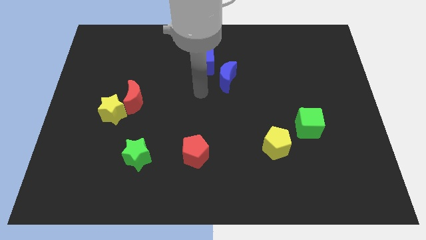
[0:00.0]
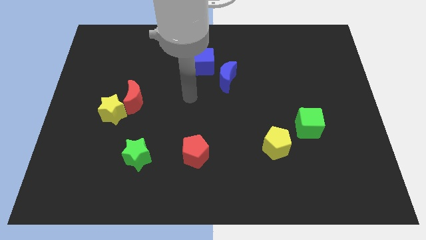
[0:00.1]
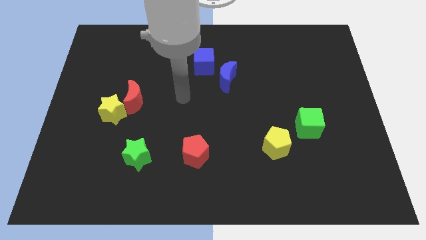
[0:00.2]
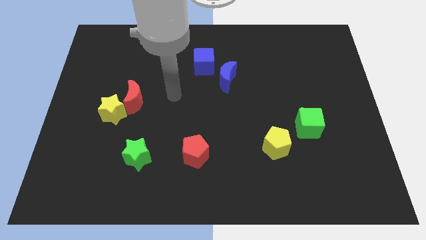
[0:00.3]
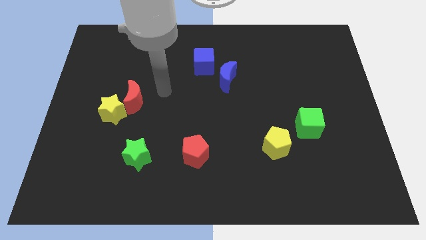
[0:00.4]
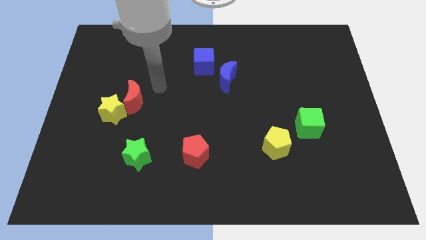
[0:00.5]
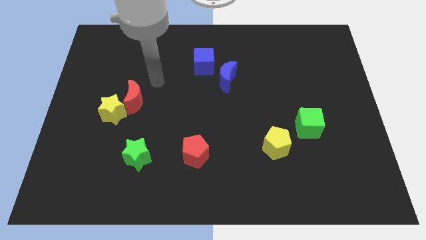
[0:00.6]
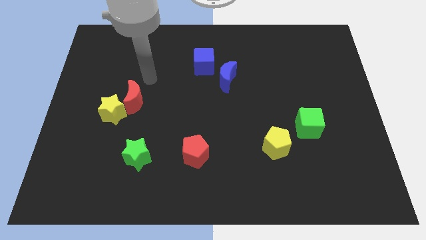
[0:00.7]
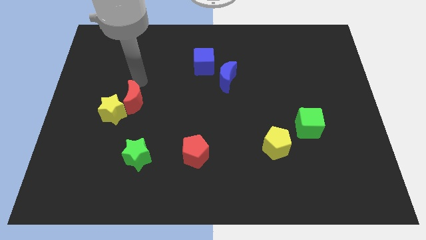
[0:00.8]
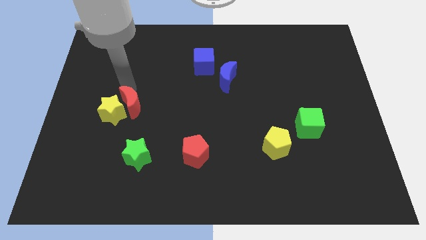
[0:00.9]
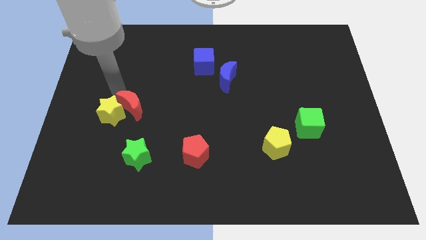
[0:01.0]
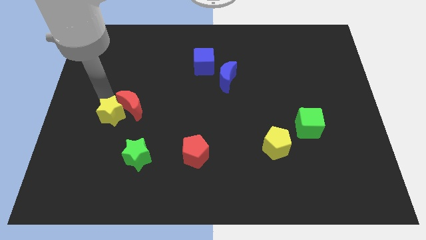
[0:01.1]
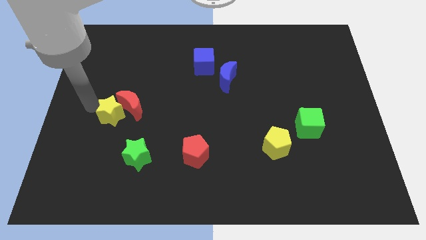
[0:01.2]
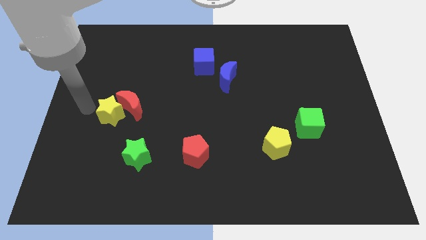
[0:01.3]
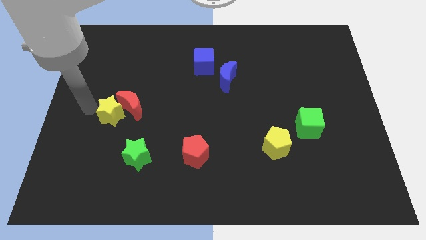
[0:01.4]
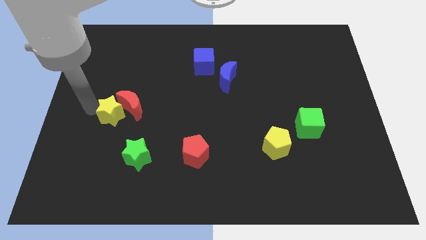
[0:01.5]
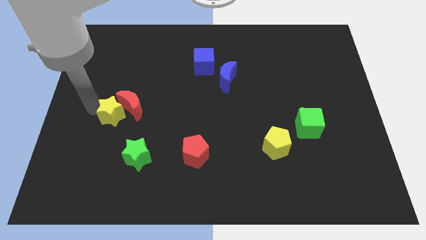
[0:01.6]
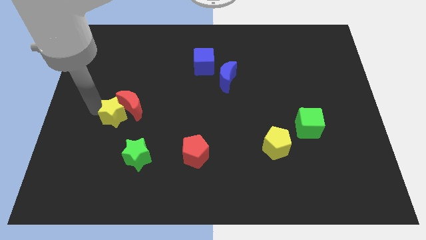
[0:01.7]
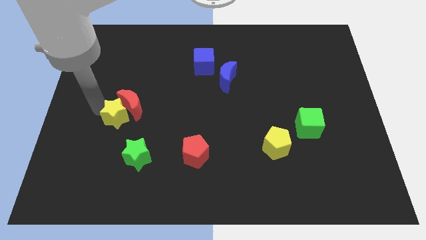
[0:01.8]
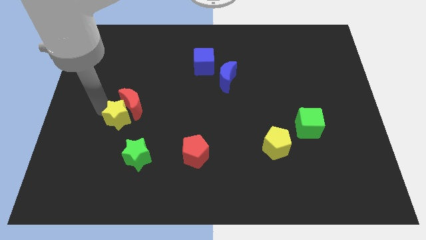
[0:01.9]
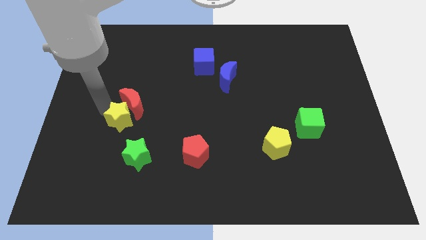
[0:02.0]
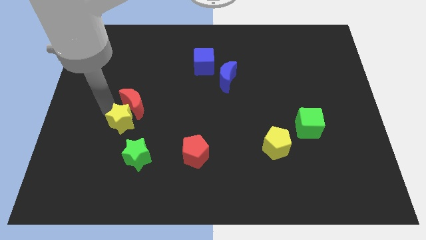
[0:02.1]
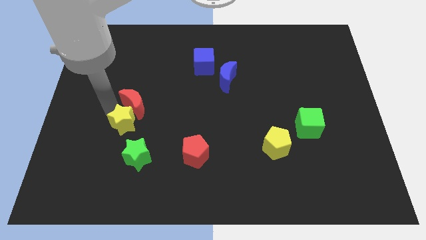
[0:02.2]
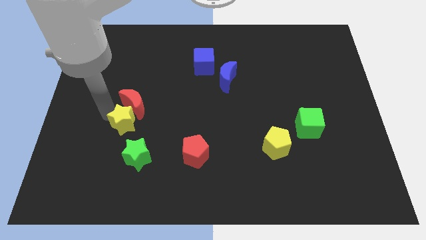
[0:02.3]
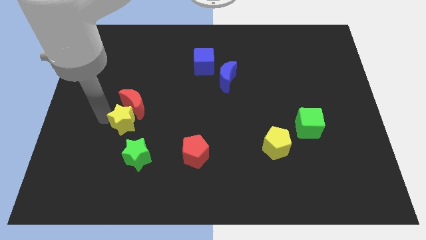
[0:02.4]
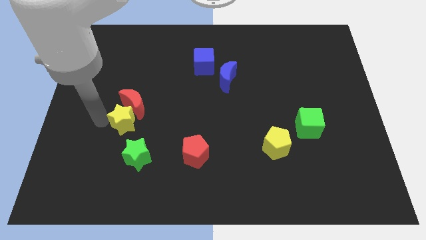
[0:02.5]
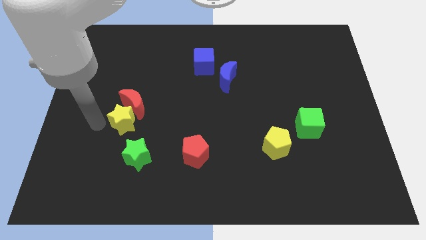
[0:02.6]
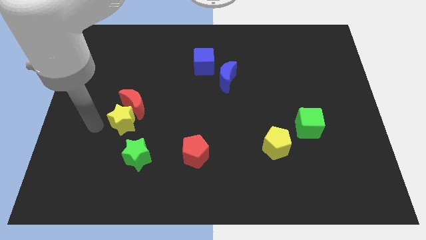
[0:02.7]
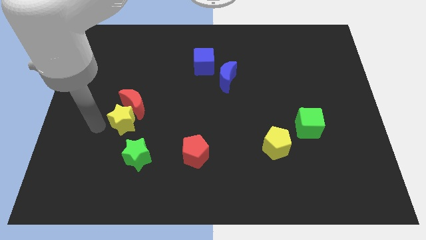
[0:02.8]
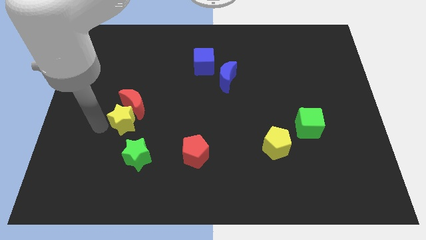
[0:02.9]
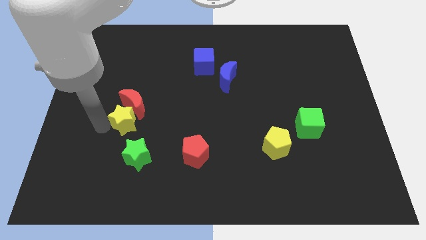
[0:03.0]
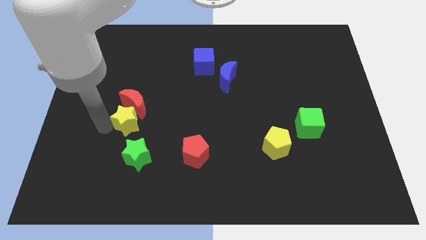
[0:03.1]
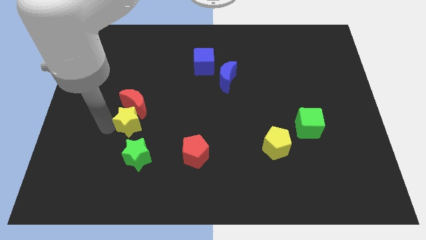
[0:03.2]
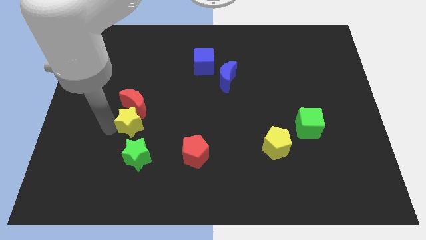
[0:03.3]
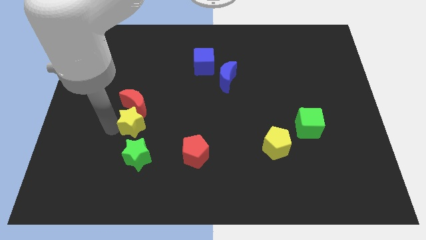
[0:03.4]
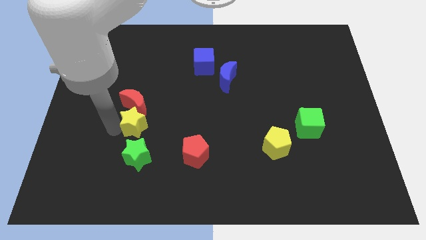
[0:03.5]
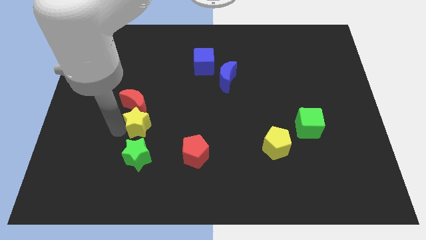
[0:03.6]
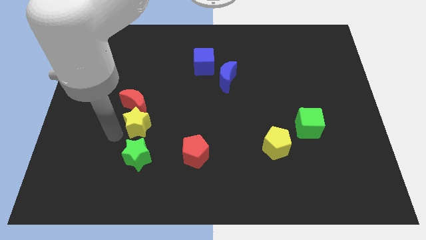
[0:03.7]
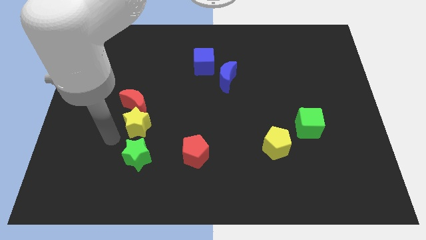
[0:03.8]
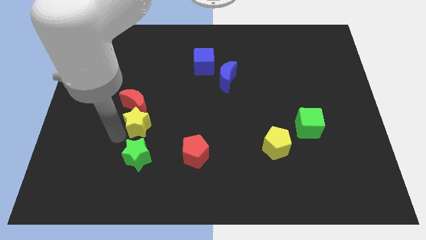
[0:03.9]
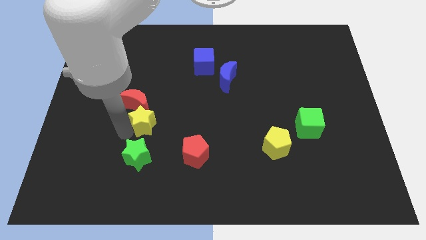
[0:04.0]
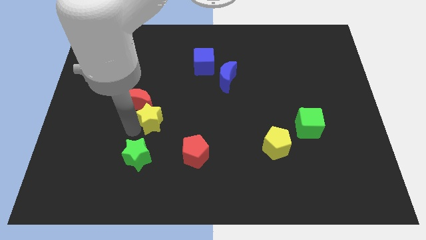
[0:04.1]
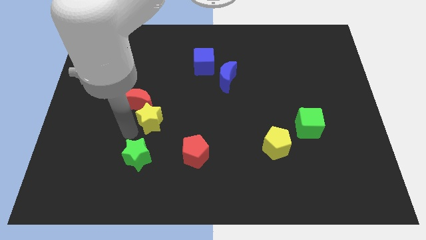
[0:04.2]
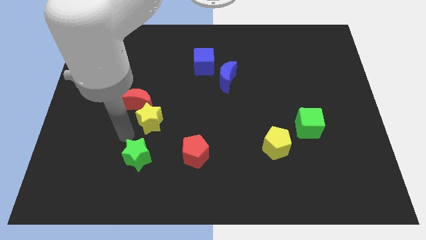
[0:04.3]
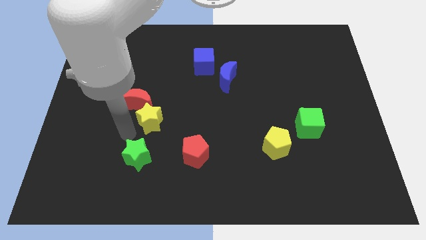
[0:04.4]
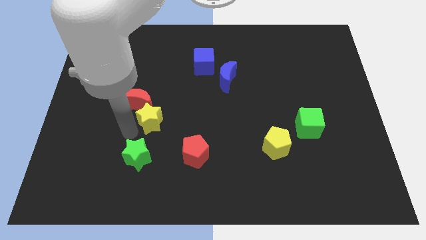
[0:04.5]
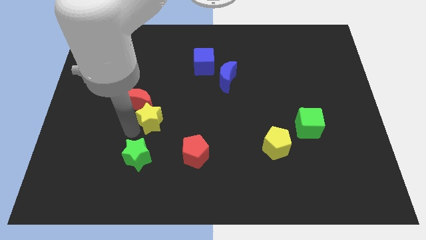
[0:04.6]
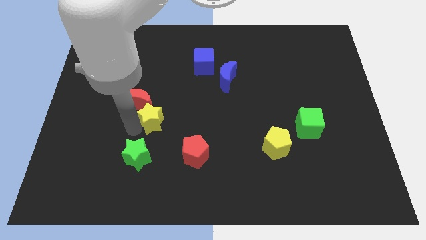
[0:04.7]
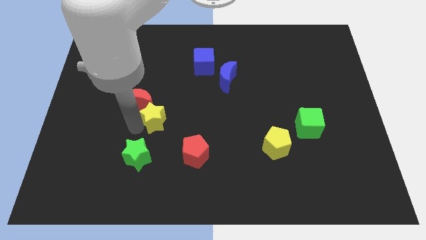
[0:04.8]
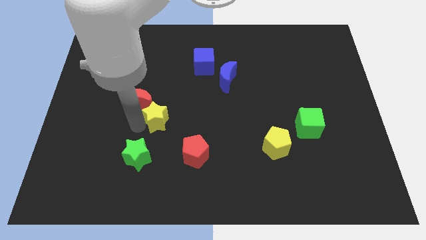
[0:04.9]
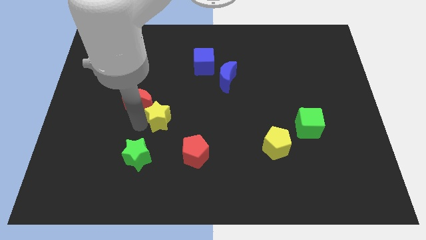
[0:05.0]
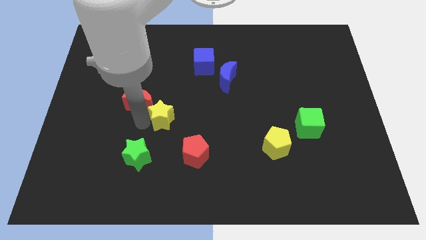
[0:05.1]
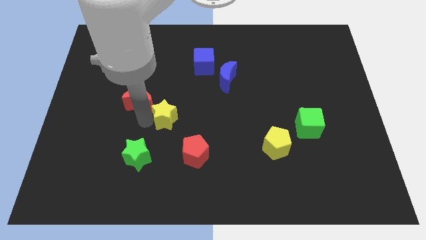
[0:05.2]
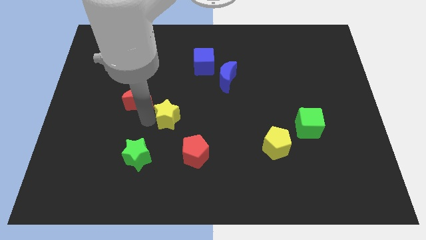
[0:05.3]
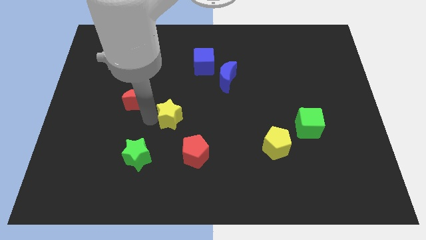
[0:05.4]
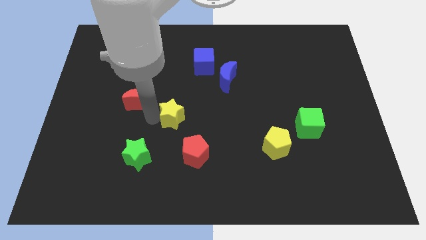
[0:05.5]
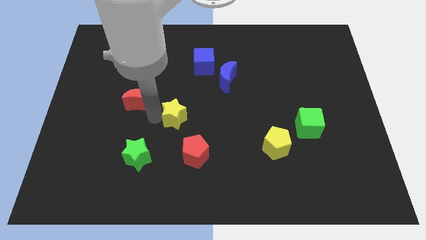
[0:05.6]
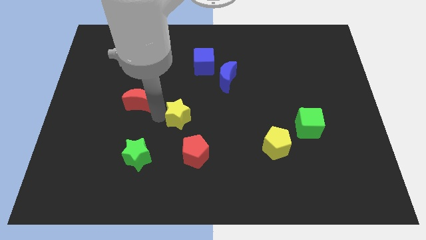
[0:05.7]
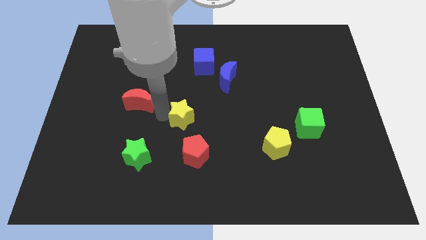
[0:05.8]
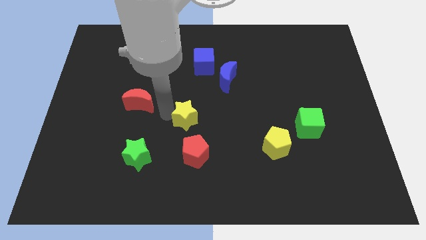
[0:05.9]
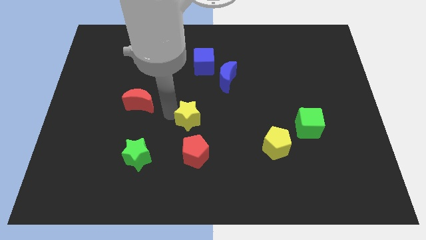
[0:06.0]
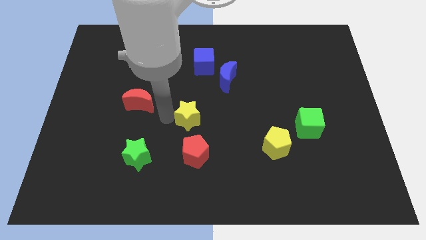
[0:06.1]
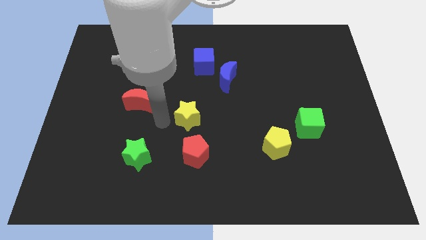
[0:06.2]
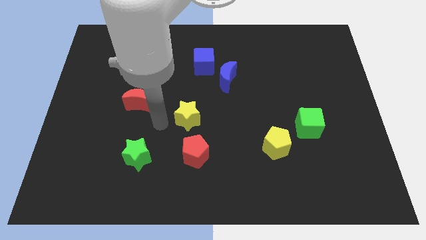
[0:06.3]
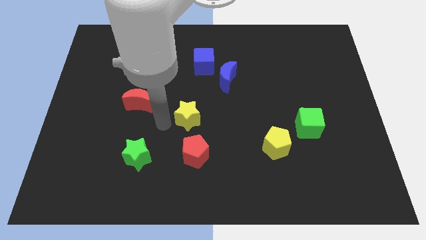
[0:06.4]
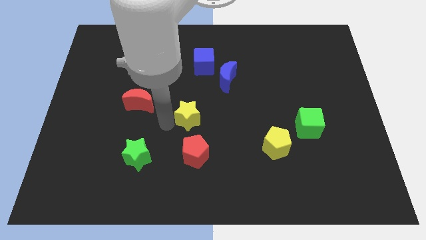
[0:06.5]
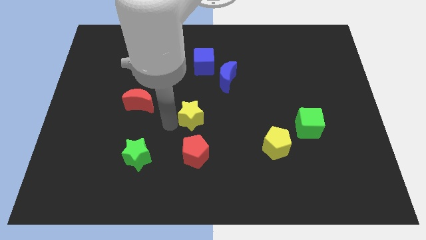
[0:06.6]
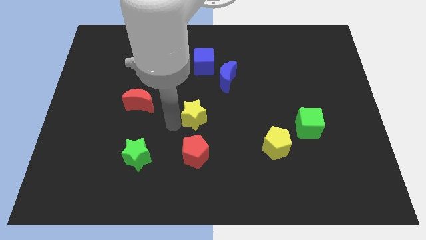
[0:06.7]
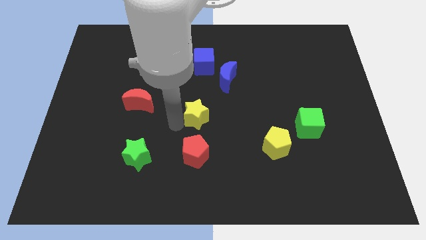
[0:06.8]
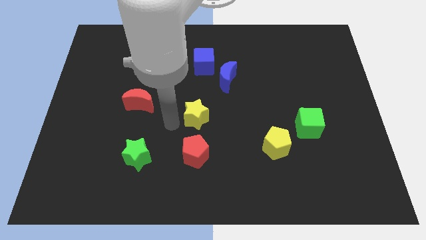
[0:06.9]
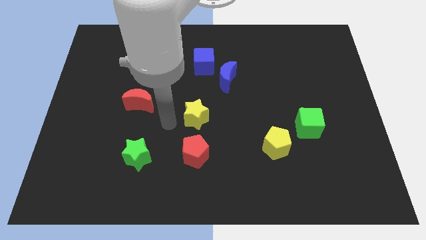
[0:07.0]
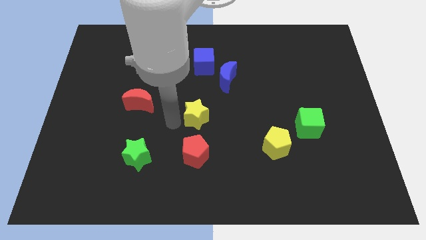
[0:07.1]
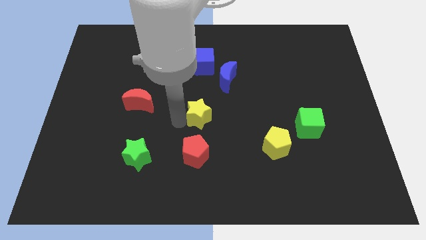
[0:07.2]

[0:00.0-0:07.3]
slide the yellow star right

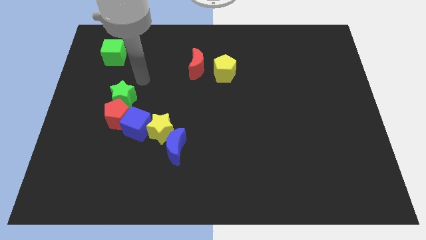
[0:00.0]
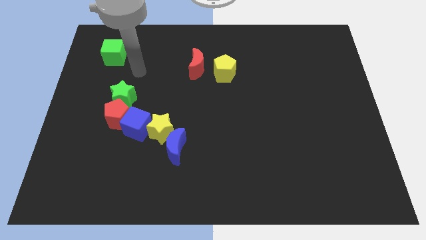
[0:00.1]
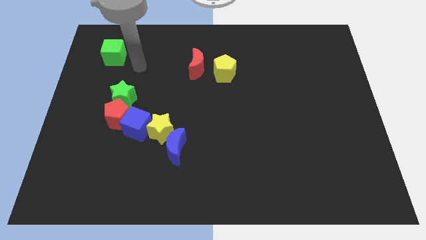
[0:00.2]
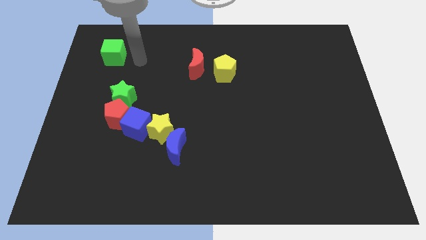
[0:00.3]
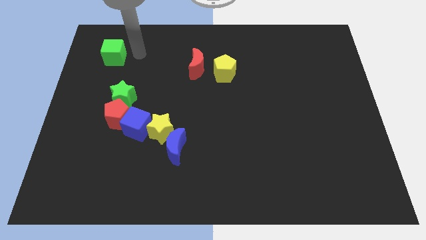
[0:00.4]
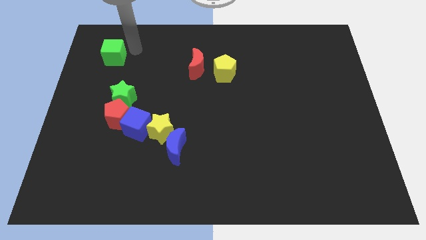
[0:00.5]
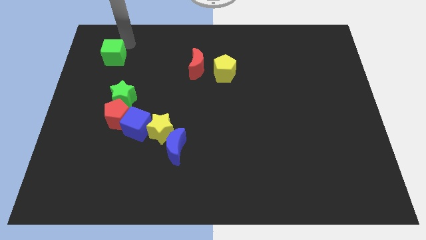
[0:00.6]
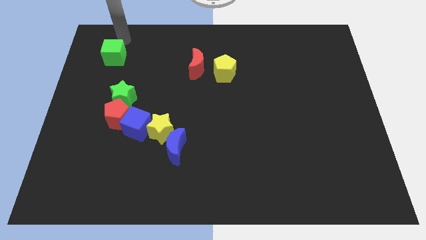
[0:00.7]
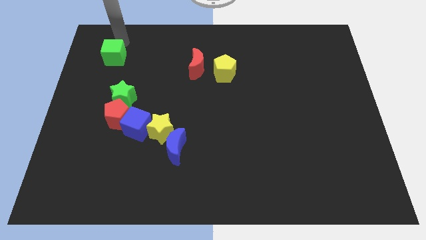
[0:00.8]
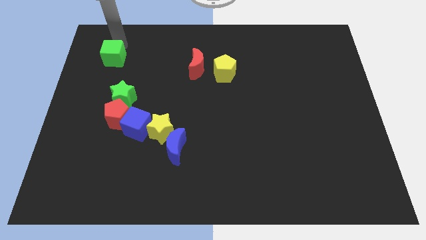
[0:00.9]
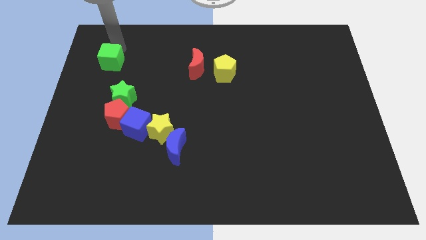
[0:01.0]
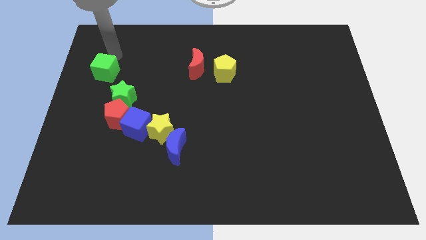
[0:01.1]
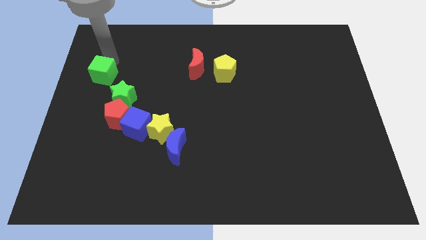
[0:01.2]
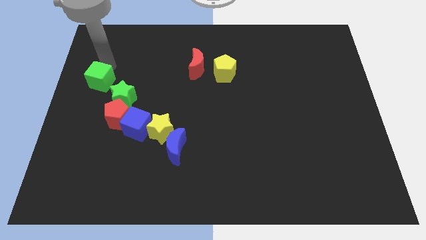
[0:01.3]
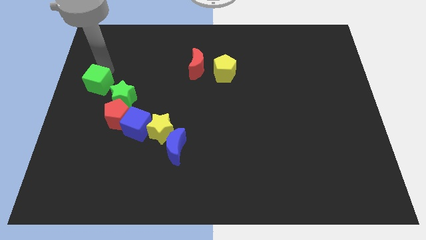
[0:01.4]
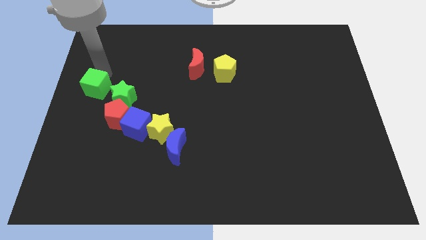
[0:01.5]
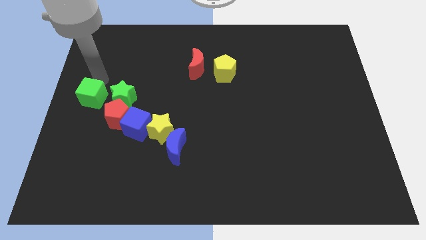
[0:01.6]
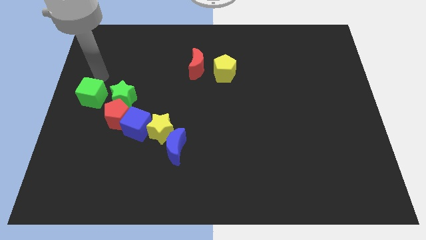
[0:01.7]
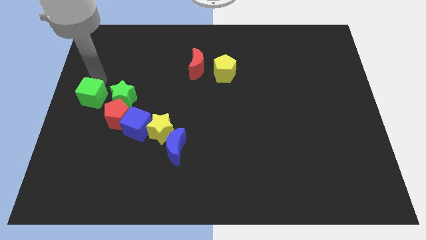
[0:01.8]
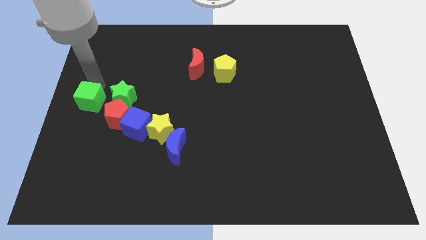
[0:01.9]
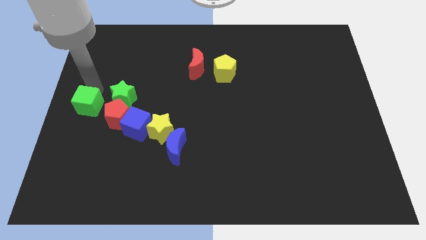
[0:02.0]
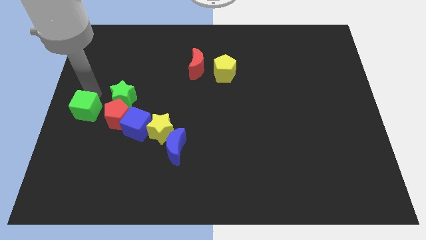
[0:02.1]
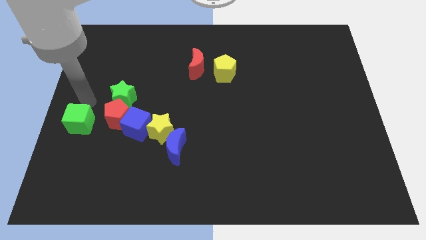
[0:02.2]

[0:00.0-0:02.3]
slide the green cube down
